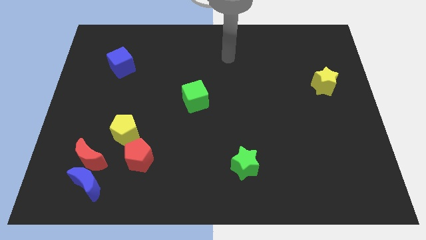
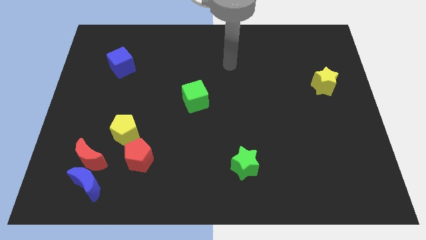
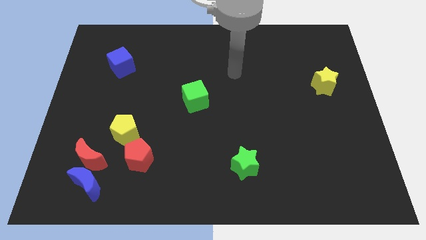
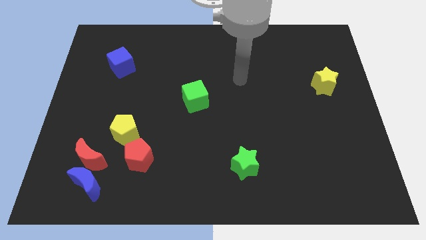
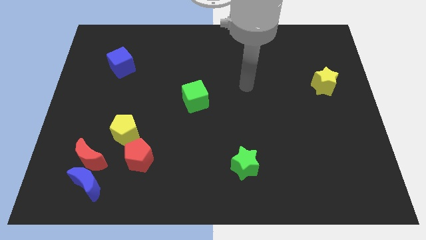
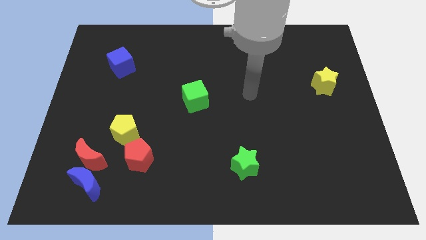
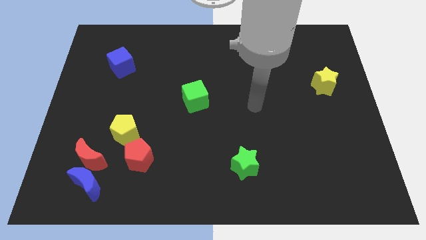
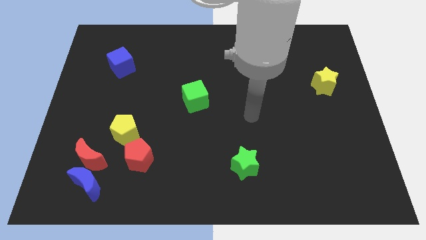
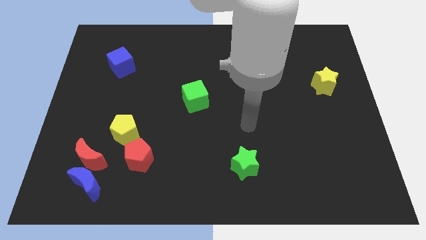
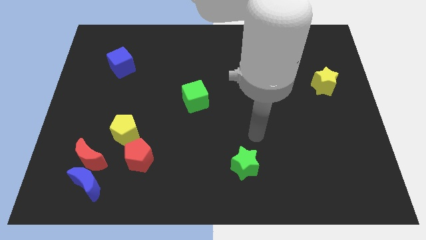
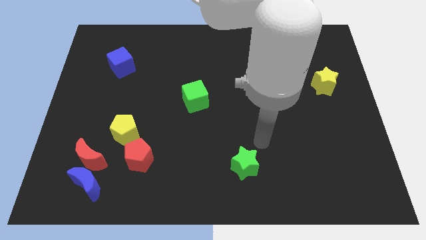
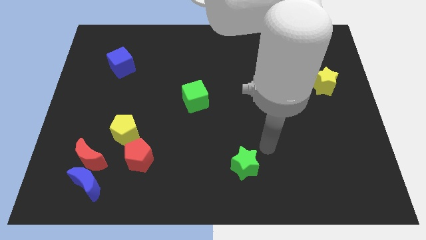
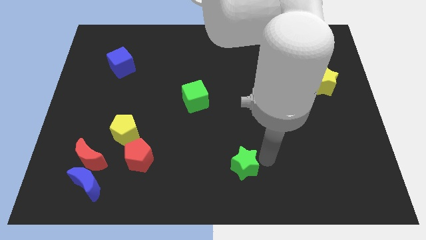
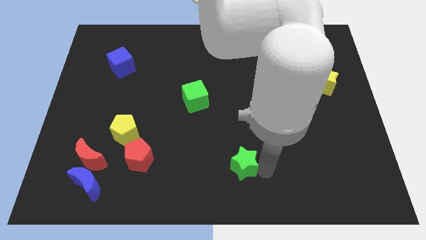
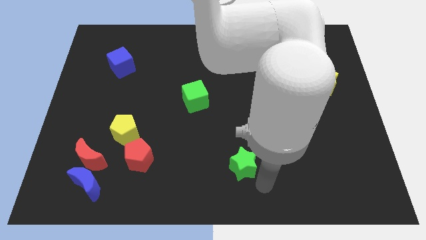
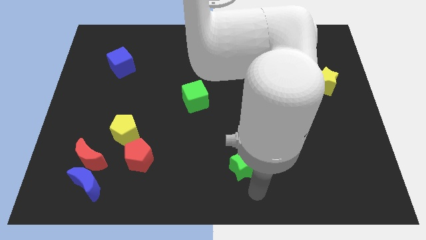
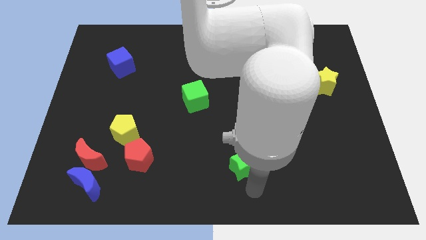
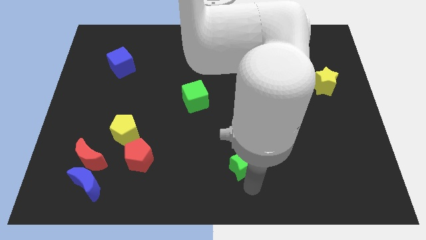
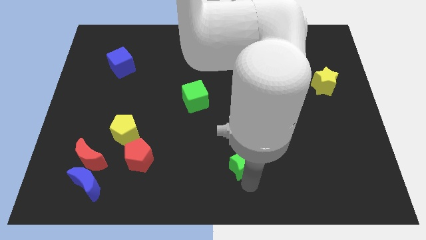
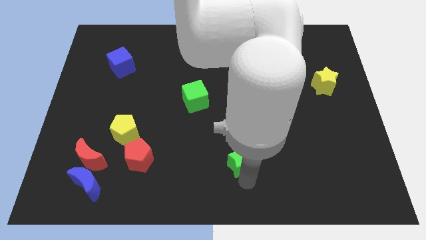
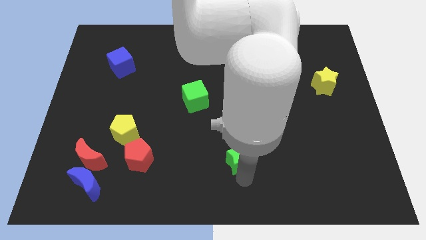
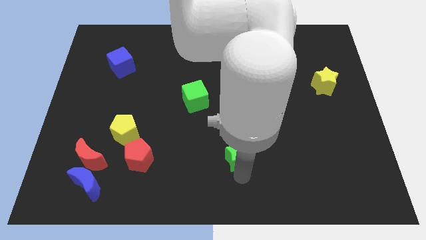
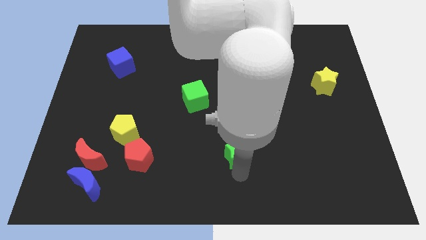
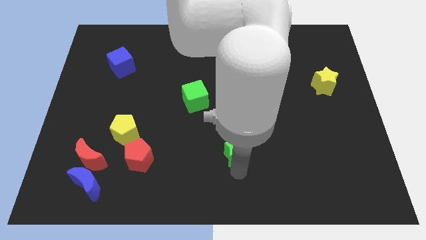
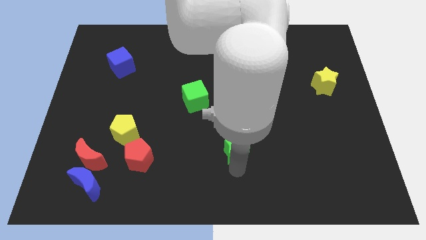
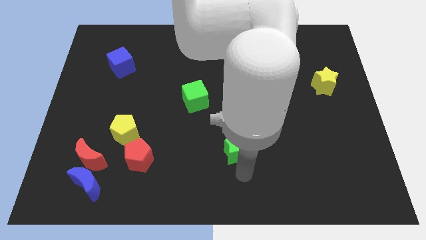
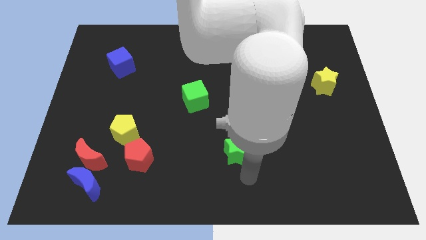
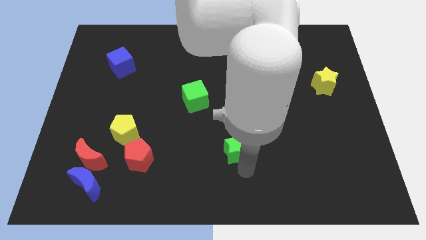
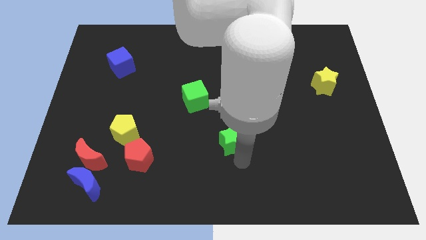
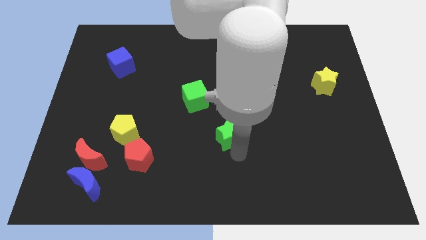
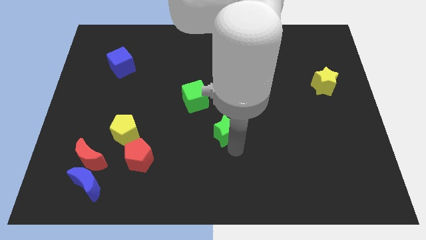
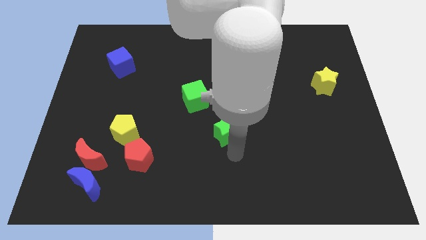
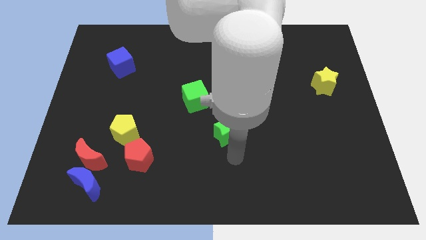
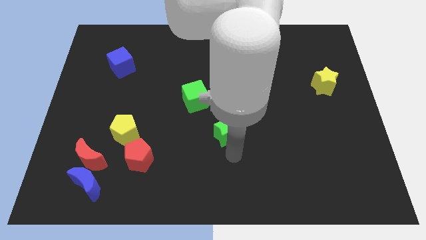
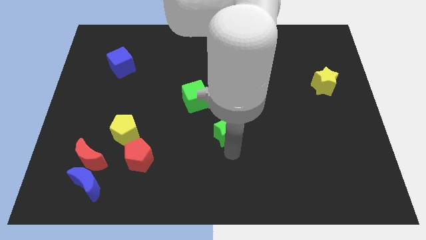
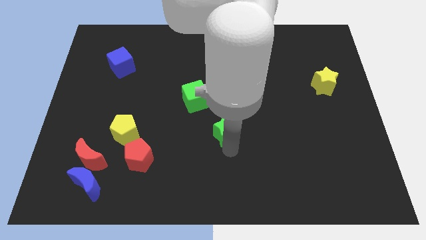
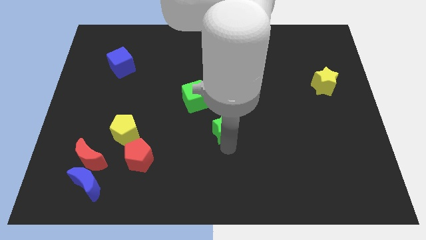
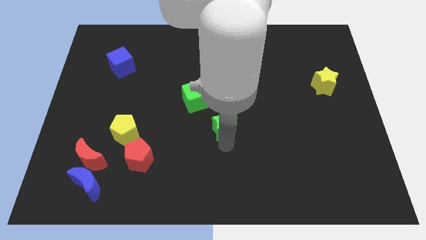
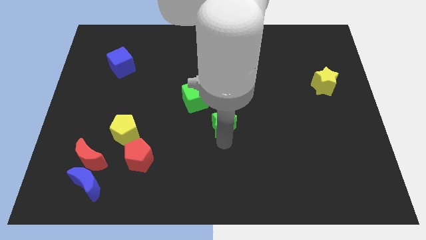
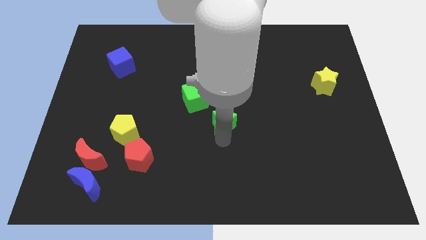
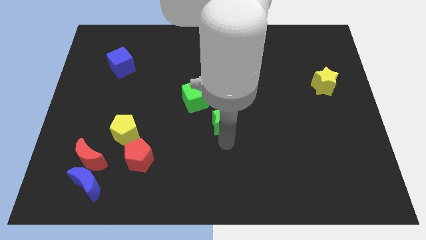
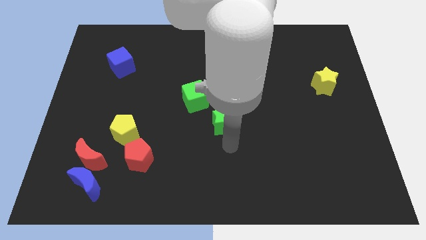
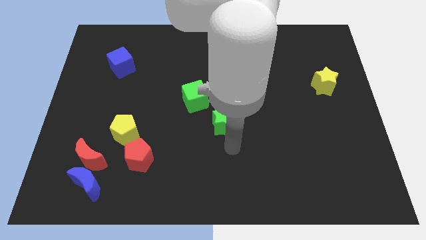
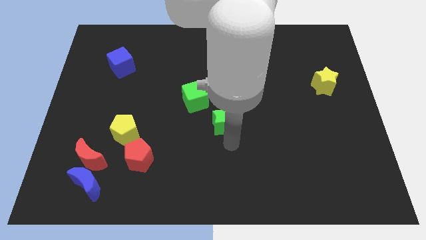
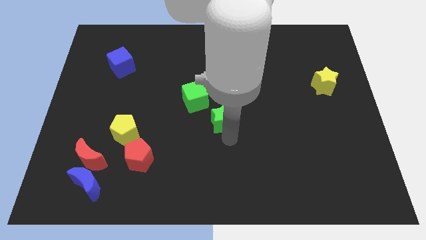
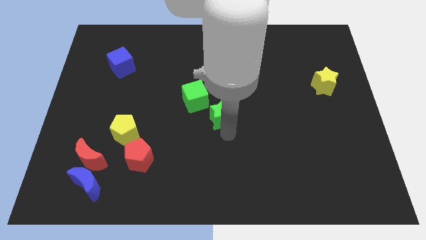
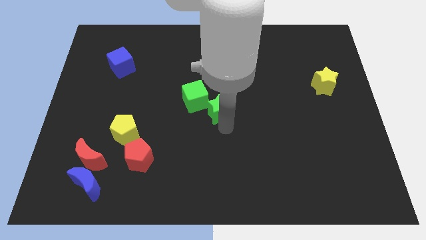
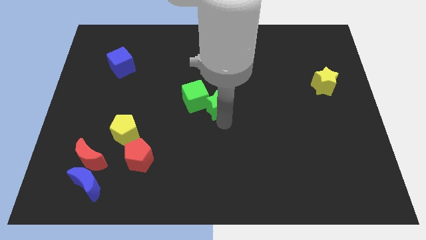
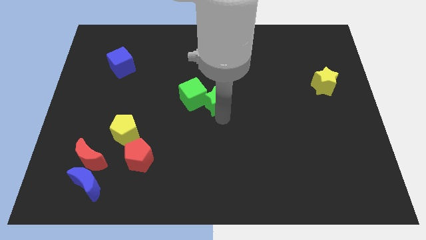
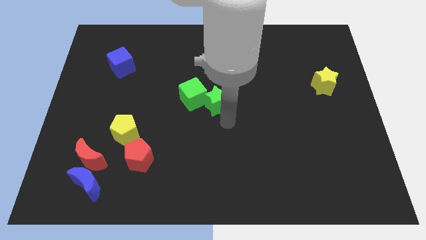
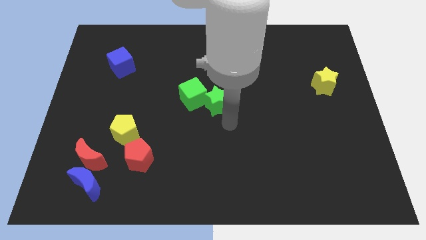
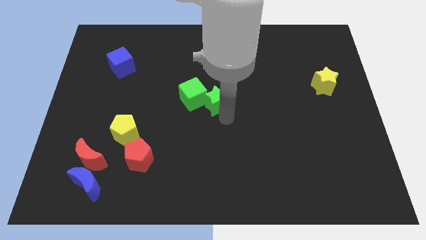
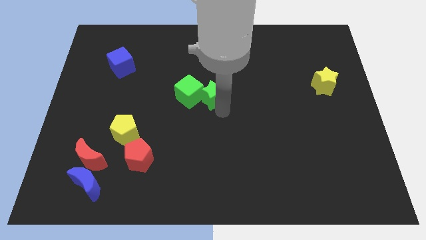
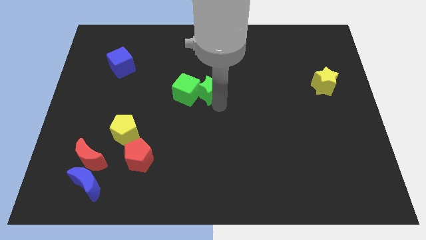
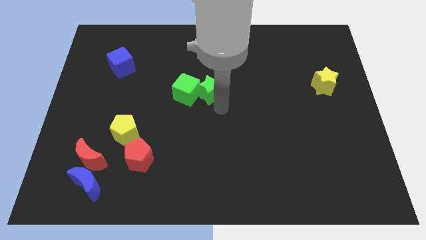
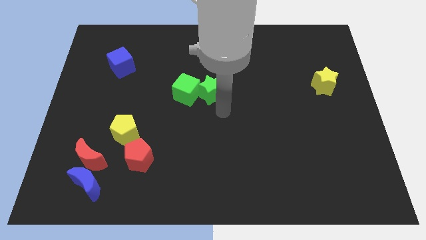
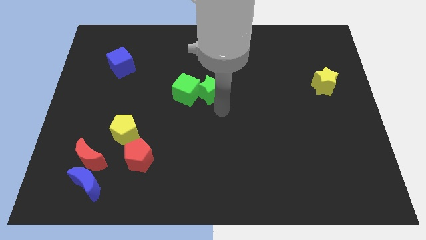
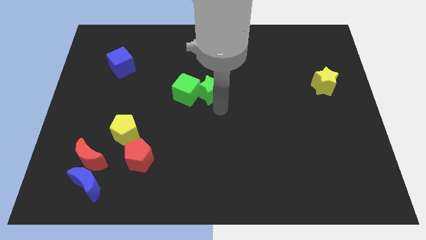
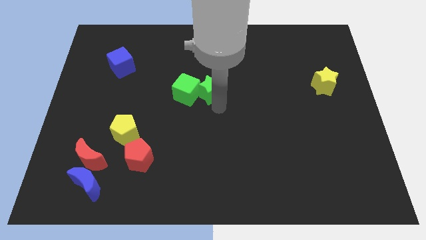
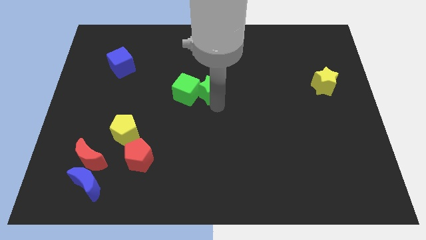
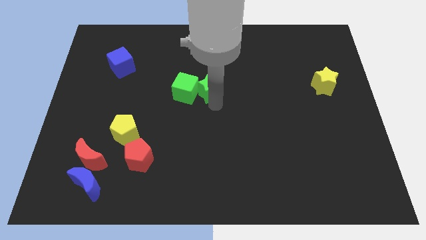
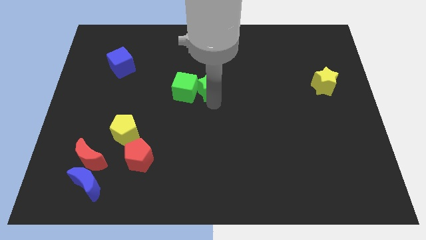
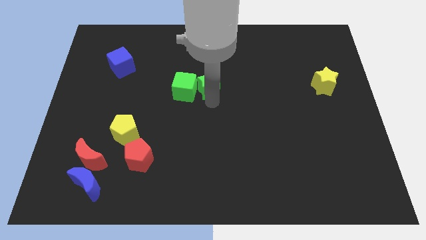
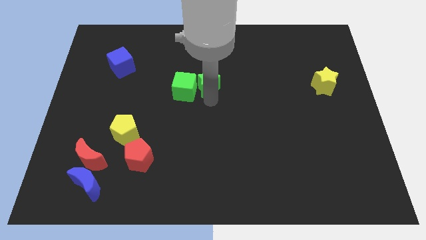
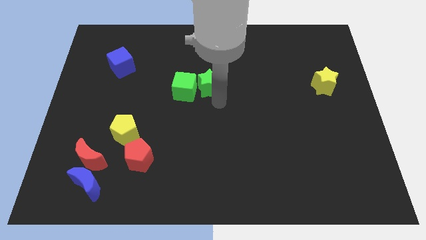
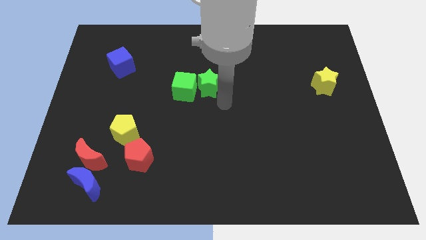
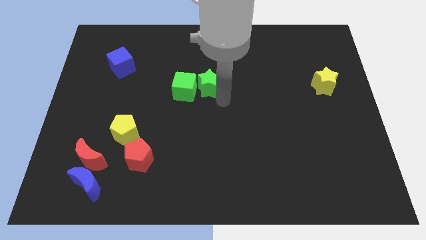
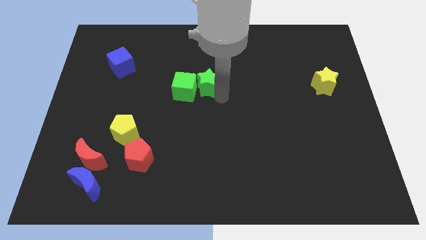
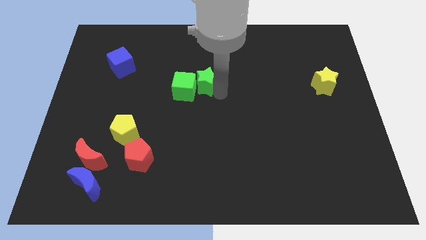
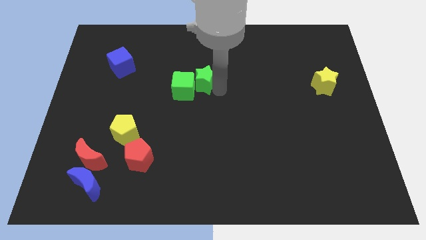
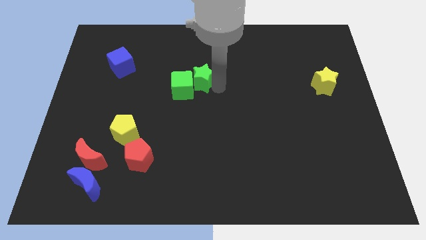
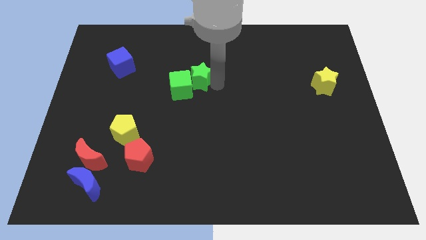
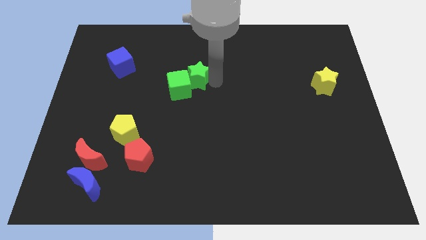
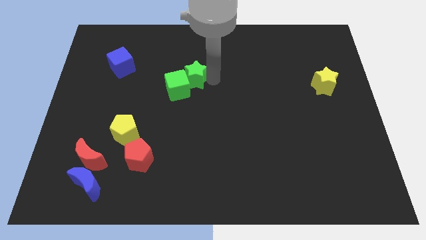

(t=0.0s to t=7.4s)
push the green star above the green cube

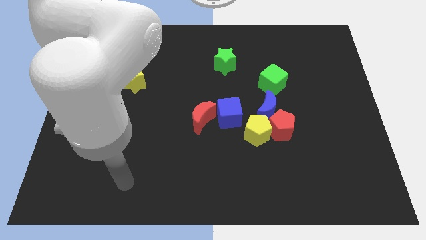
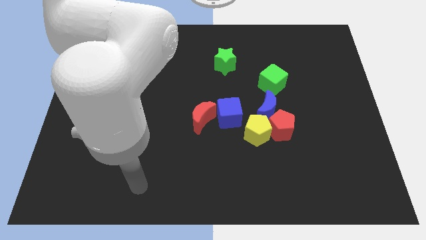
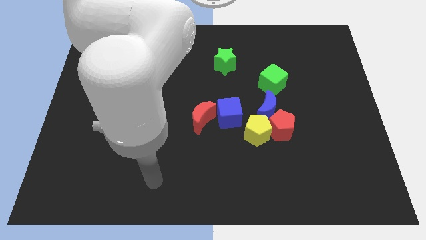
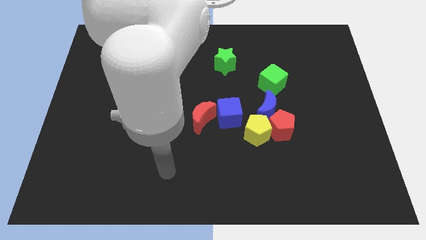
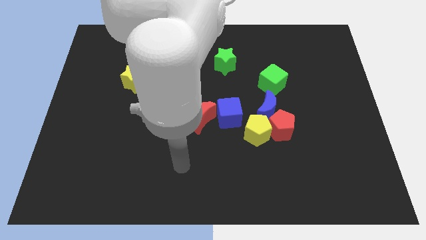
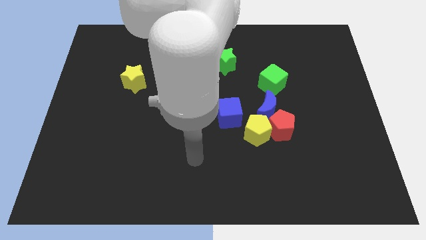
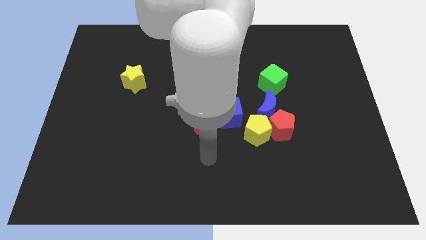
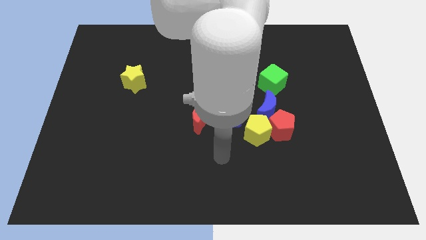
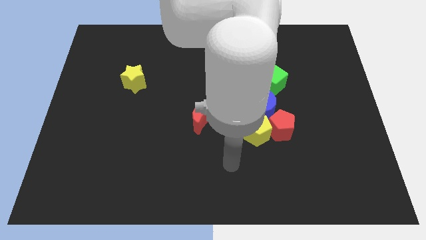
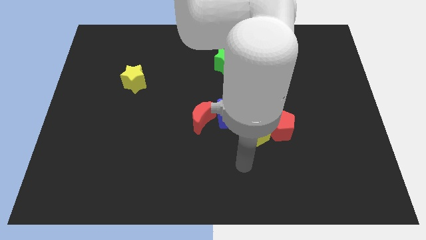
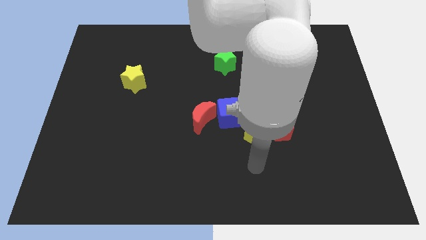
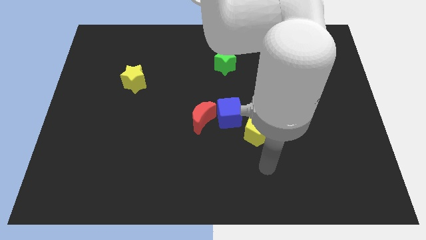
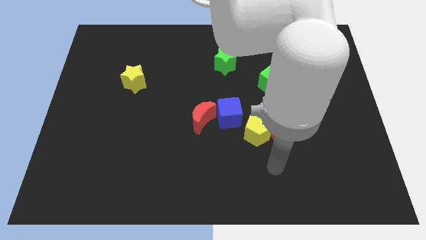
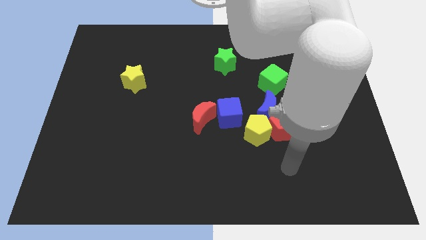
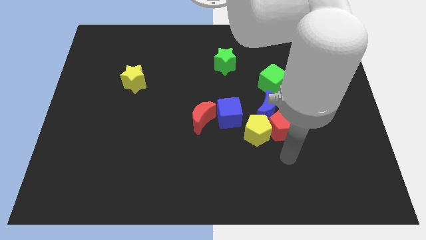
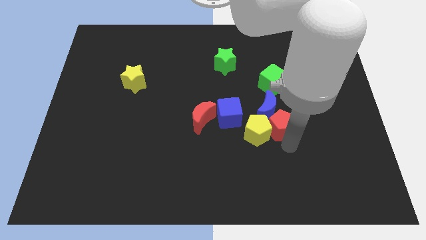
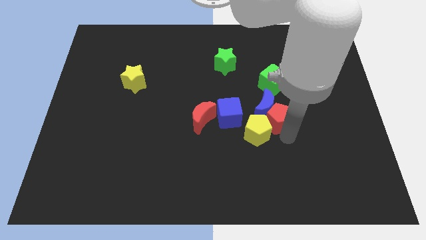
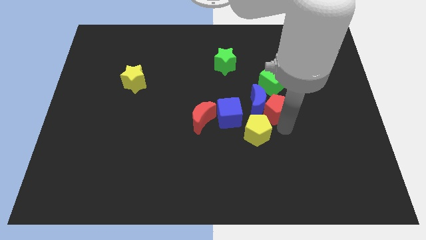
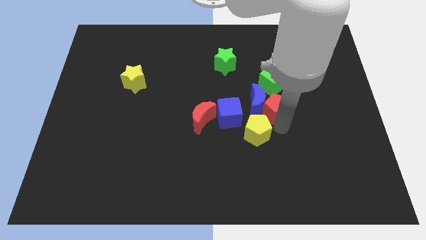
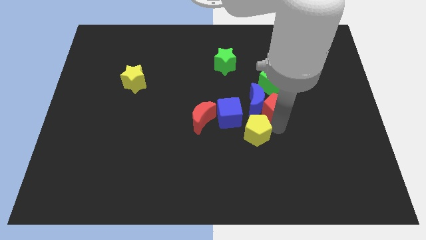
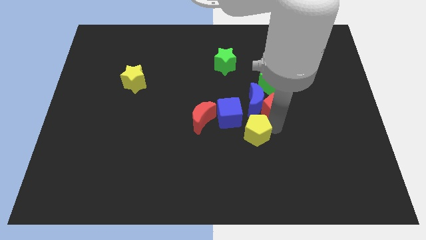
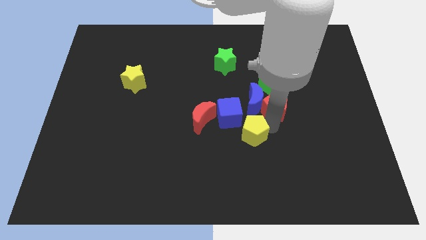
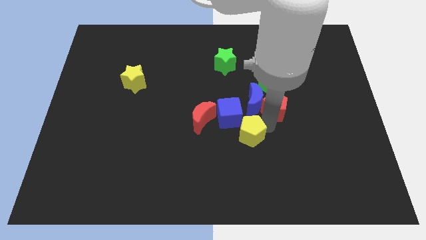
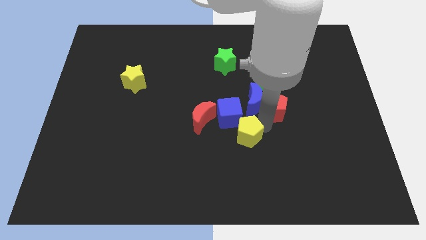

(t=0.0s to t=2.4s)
move the yellow pentagon to the bottom right of the red moon
